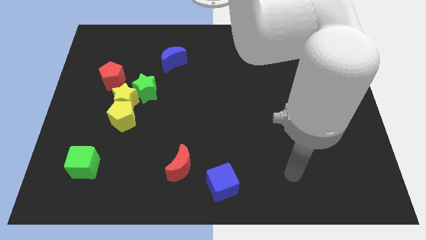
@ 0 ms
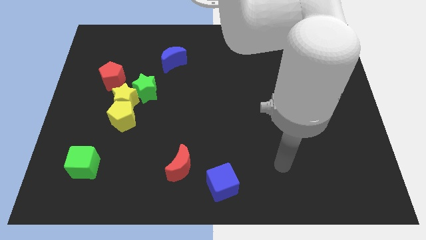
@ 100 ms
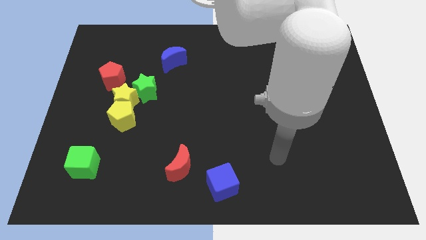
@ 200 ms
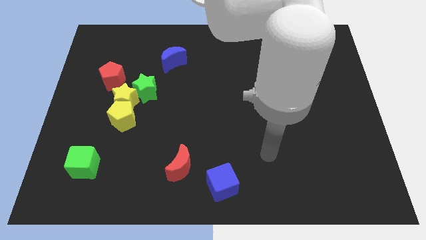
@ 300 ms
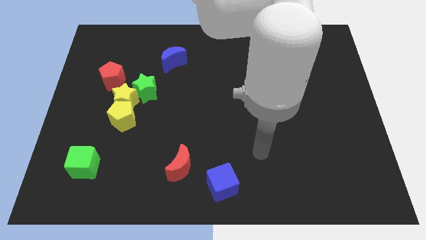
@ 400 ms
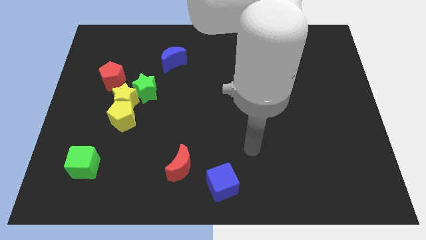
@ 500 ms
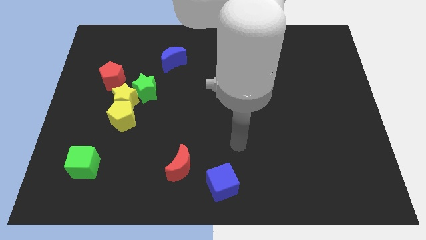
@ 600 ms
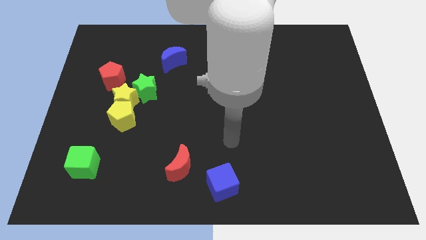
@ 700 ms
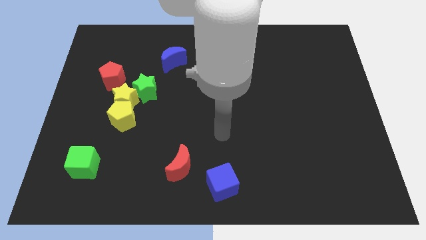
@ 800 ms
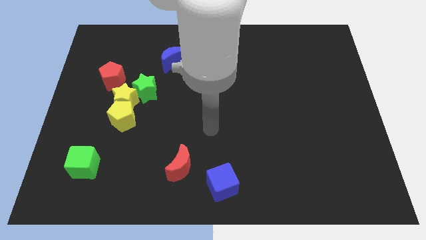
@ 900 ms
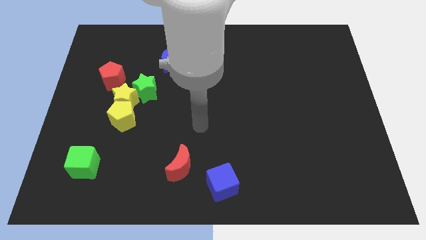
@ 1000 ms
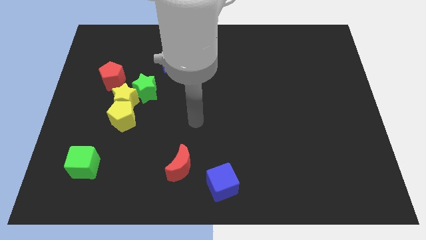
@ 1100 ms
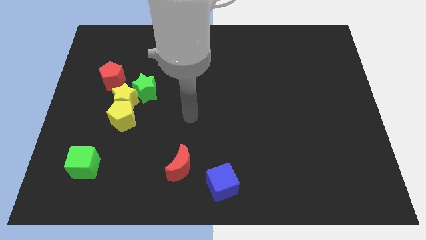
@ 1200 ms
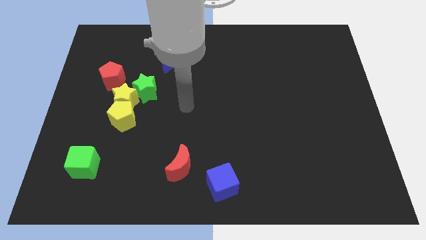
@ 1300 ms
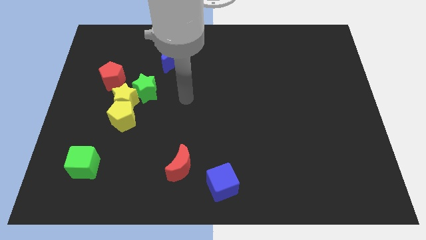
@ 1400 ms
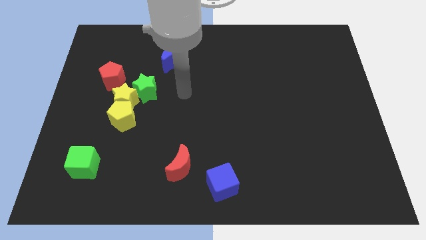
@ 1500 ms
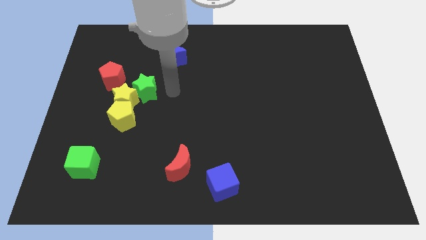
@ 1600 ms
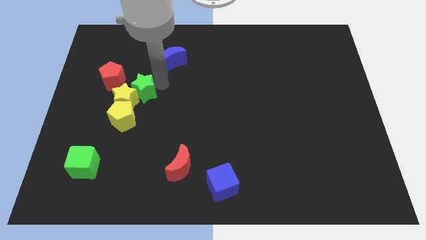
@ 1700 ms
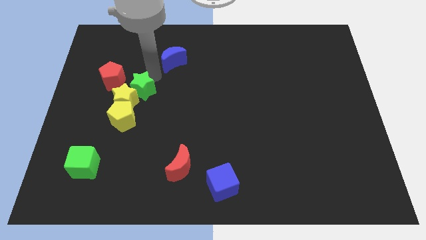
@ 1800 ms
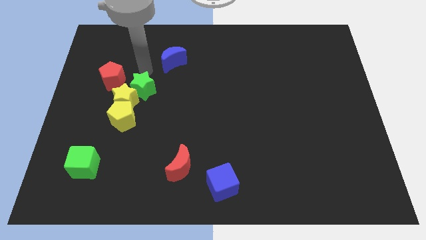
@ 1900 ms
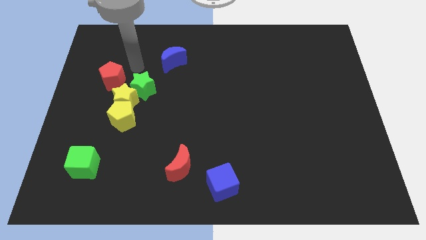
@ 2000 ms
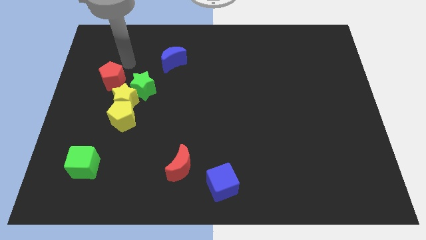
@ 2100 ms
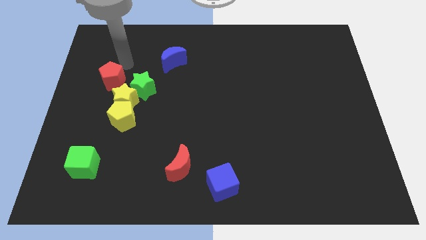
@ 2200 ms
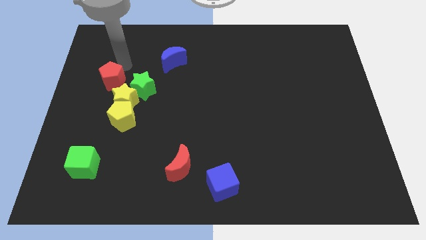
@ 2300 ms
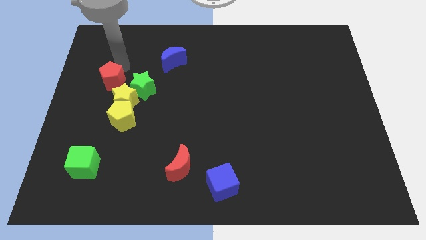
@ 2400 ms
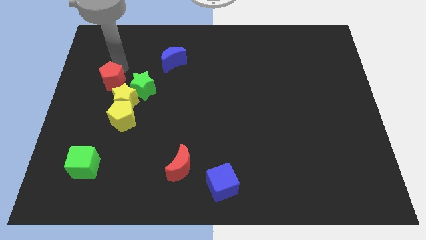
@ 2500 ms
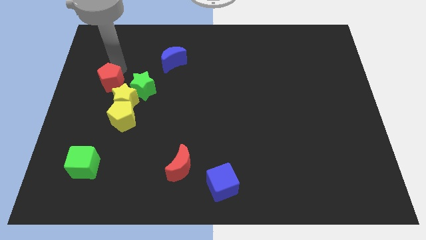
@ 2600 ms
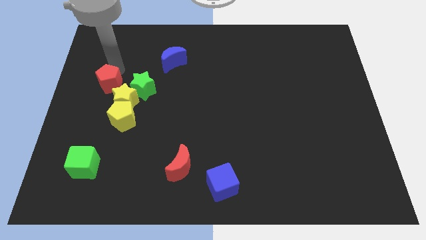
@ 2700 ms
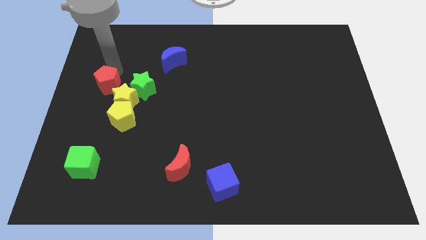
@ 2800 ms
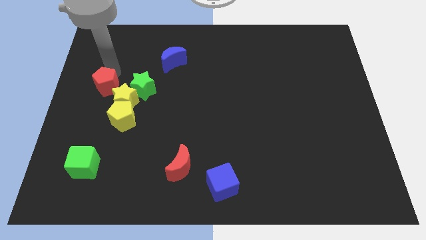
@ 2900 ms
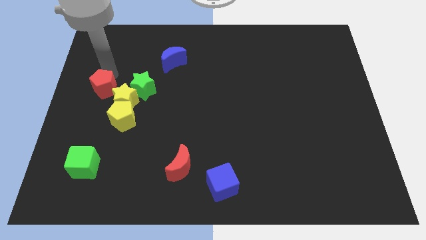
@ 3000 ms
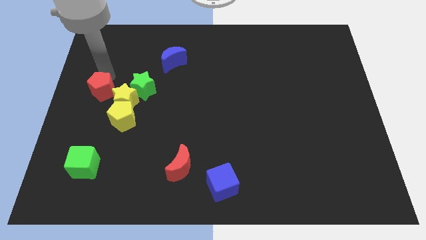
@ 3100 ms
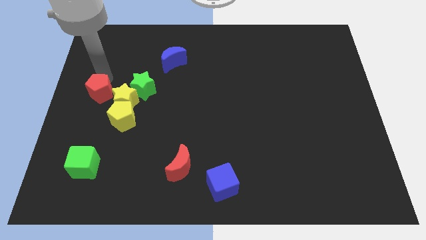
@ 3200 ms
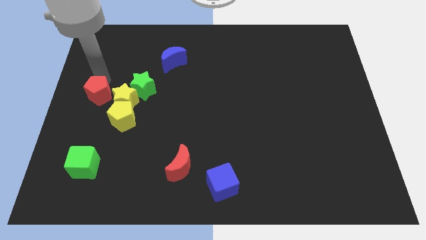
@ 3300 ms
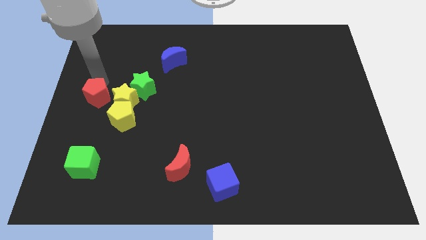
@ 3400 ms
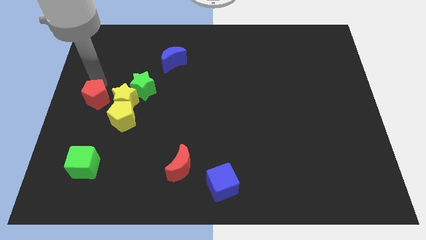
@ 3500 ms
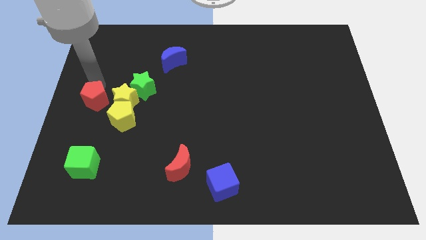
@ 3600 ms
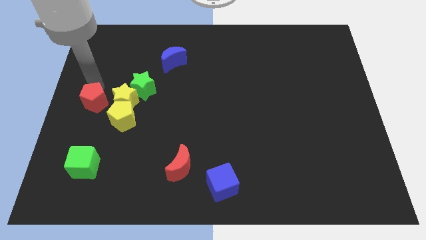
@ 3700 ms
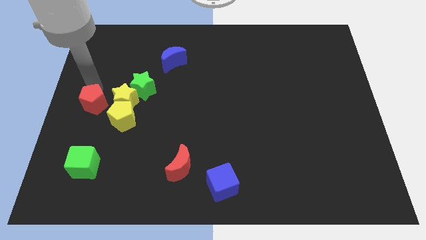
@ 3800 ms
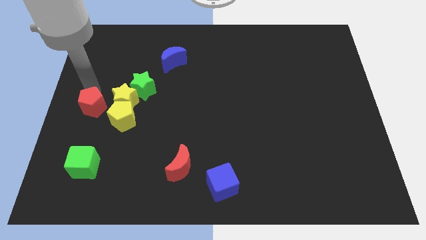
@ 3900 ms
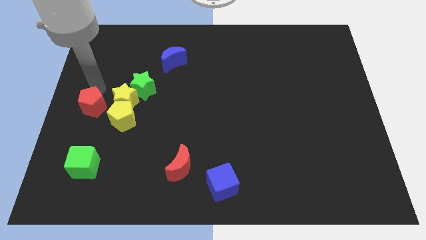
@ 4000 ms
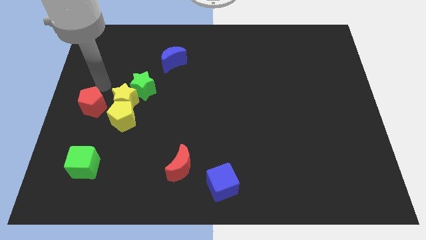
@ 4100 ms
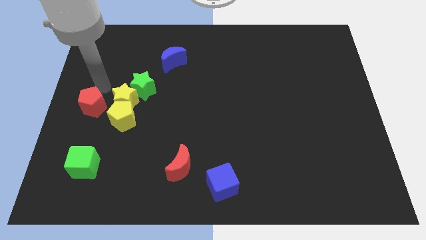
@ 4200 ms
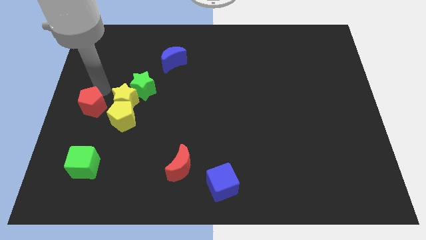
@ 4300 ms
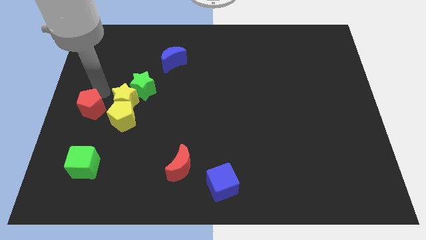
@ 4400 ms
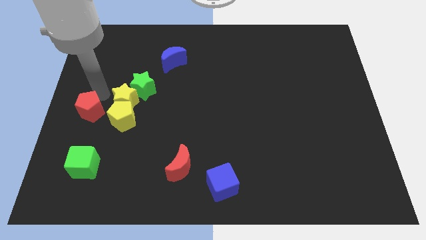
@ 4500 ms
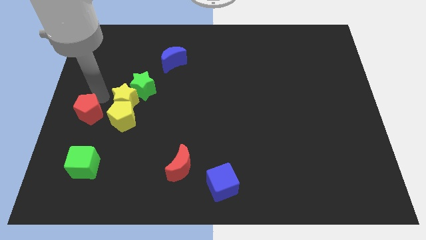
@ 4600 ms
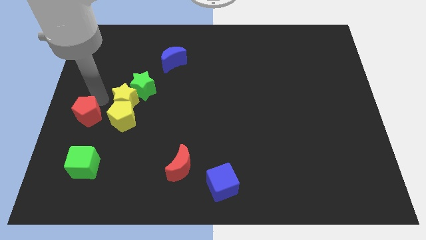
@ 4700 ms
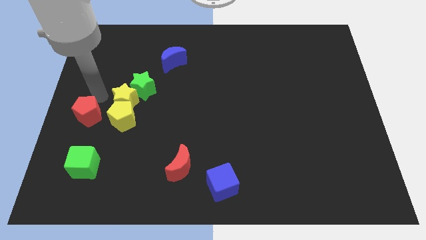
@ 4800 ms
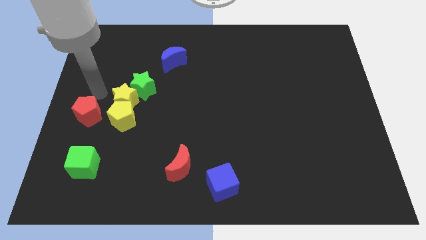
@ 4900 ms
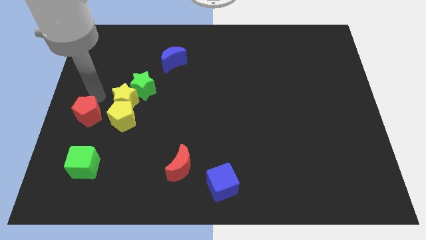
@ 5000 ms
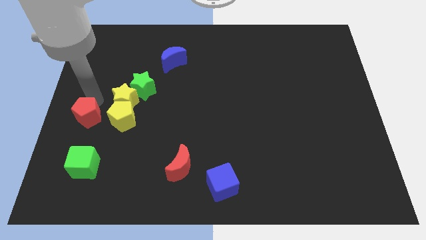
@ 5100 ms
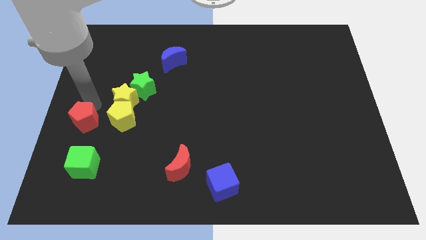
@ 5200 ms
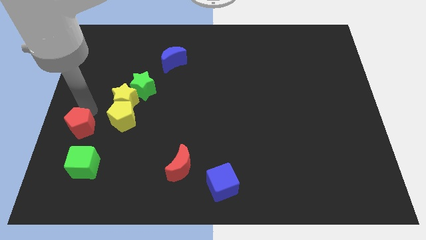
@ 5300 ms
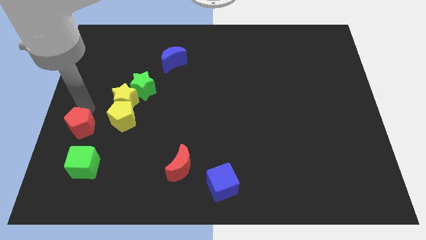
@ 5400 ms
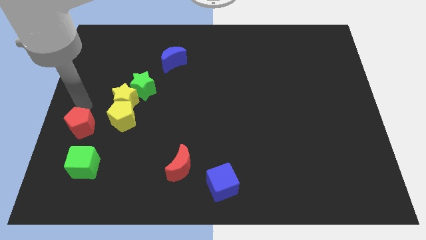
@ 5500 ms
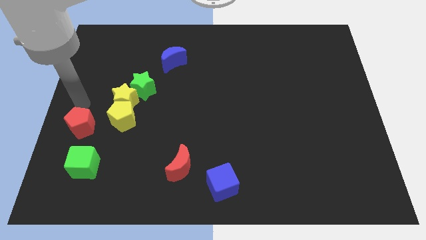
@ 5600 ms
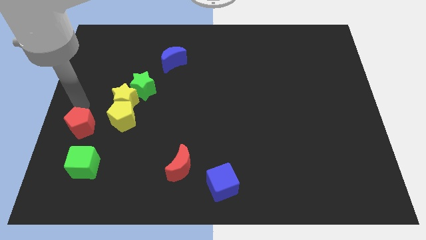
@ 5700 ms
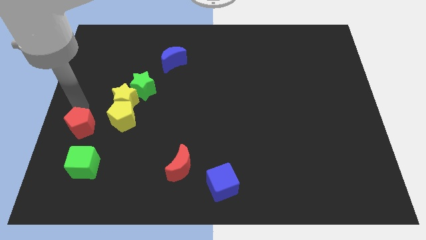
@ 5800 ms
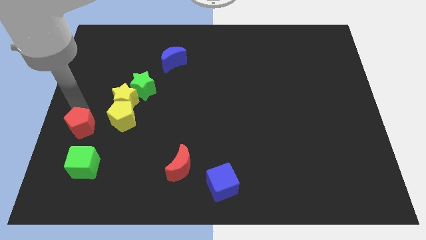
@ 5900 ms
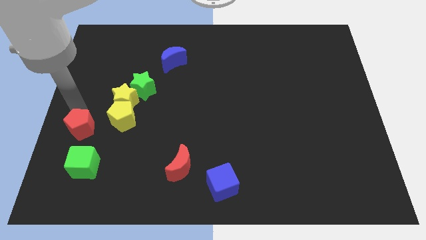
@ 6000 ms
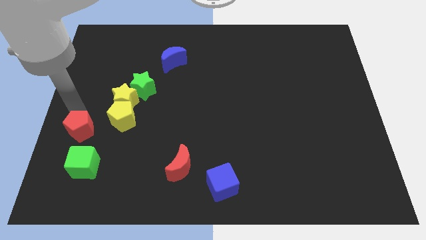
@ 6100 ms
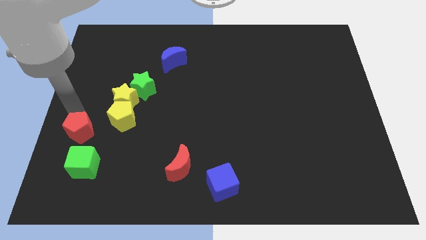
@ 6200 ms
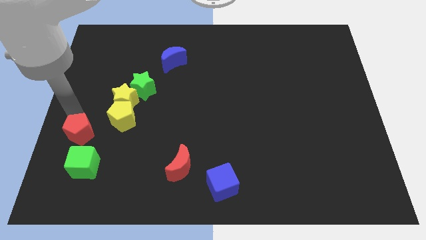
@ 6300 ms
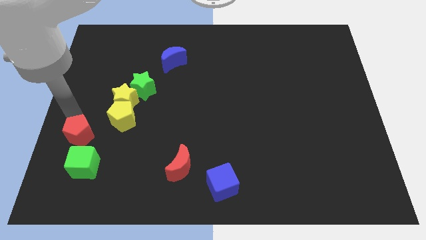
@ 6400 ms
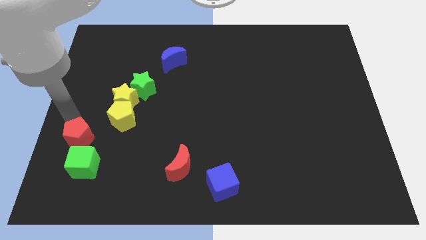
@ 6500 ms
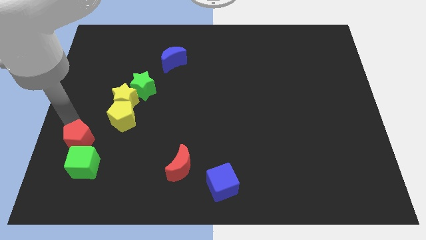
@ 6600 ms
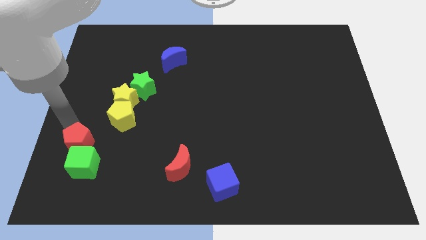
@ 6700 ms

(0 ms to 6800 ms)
push the red pentagon to the green cube

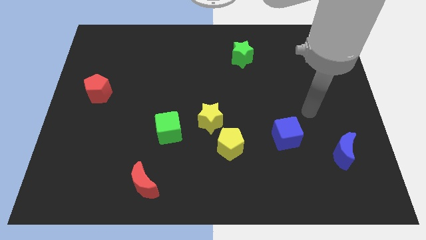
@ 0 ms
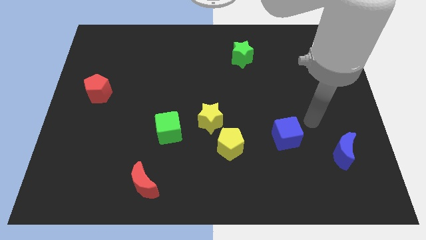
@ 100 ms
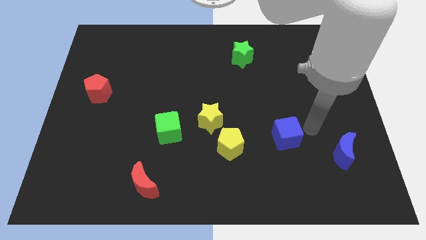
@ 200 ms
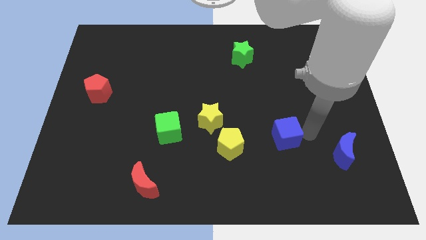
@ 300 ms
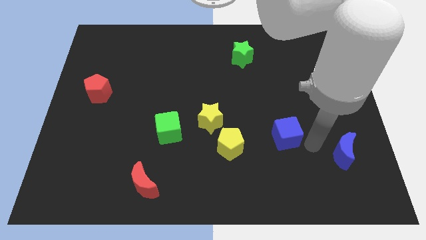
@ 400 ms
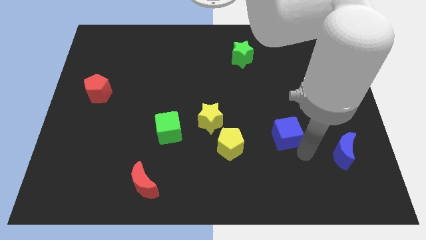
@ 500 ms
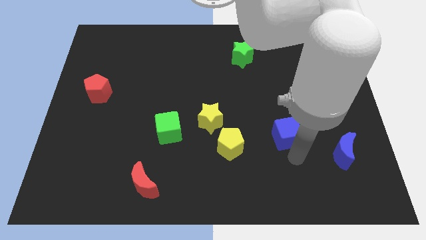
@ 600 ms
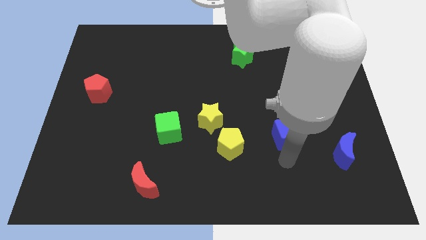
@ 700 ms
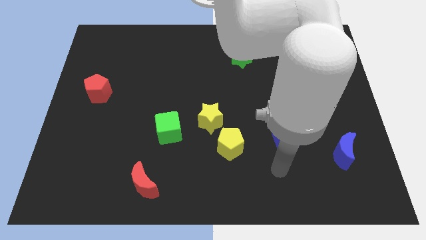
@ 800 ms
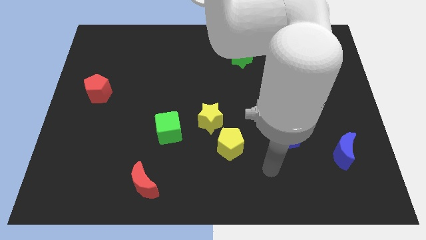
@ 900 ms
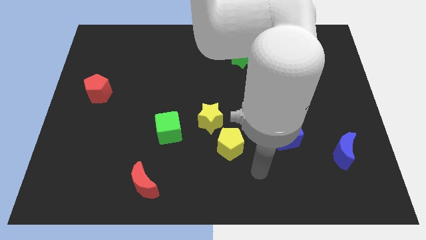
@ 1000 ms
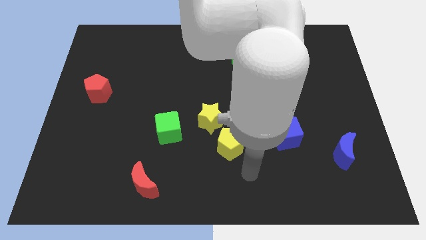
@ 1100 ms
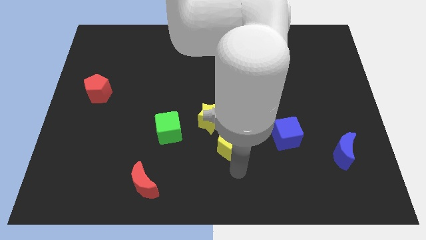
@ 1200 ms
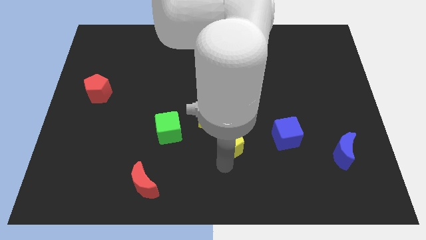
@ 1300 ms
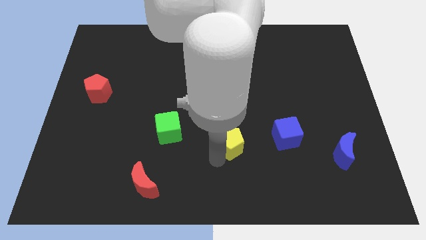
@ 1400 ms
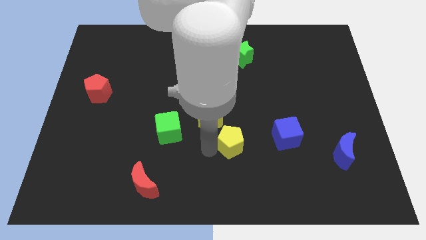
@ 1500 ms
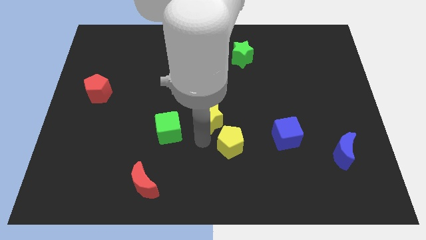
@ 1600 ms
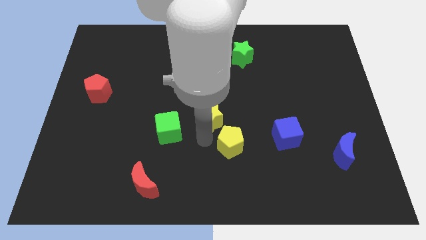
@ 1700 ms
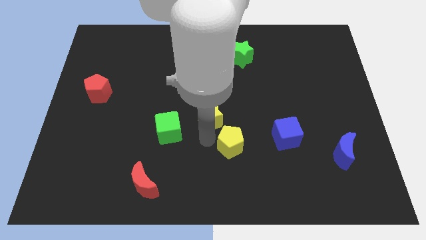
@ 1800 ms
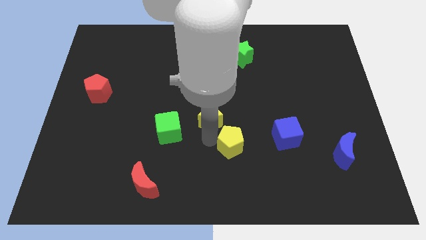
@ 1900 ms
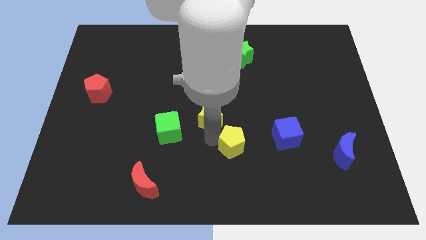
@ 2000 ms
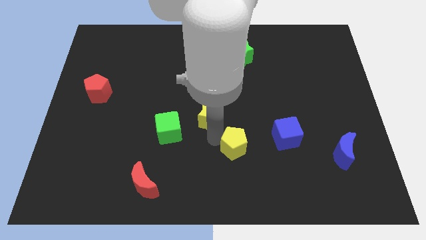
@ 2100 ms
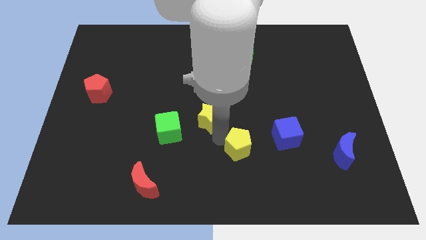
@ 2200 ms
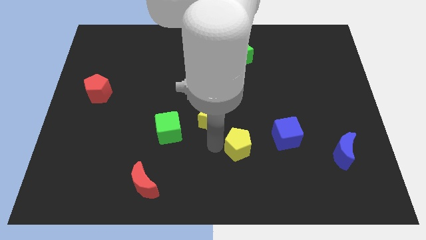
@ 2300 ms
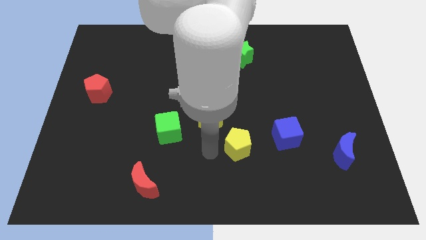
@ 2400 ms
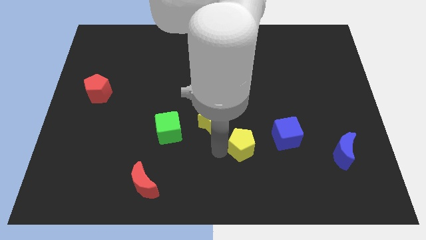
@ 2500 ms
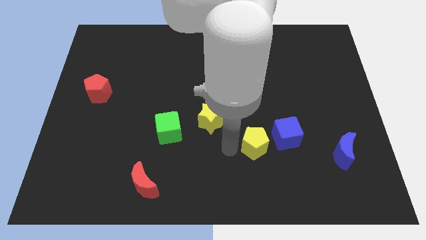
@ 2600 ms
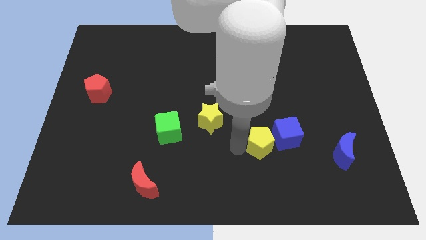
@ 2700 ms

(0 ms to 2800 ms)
move the yellow pentagon towards the blue cube
